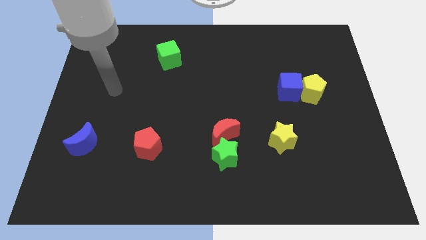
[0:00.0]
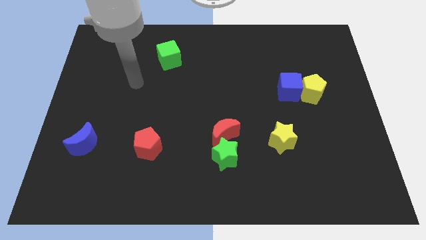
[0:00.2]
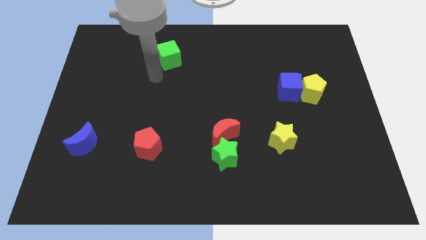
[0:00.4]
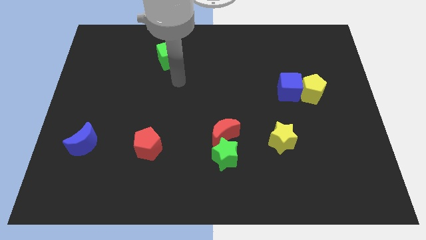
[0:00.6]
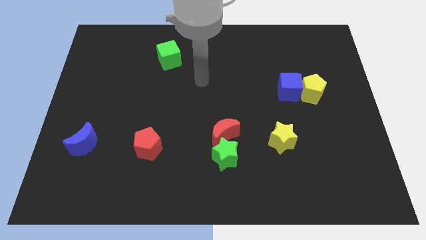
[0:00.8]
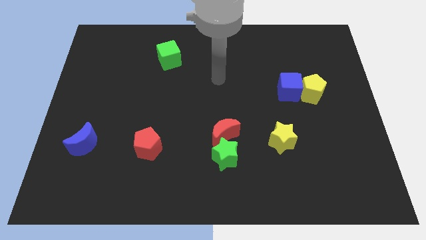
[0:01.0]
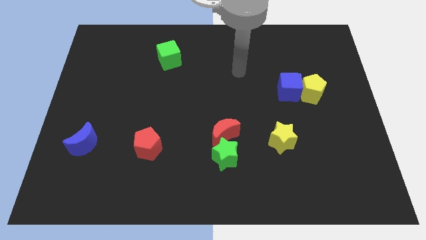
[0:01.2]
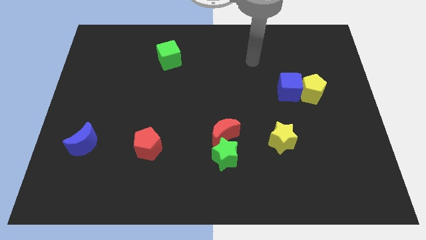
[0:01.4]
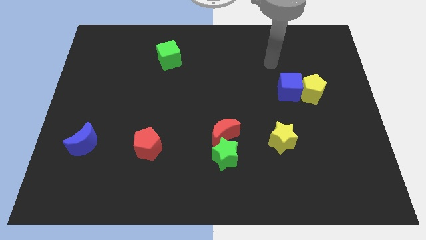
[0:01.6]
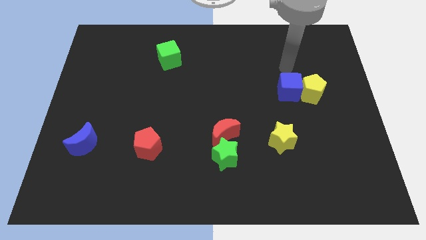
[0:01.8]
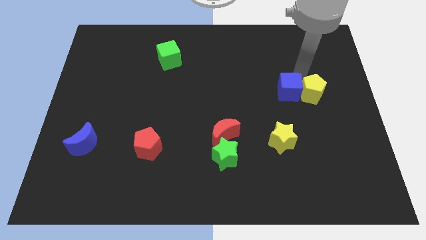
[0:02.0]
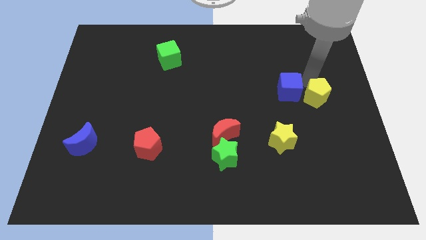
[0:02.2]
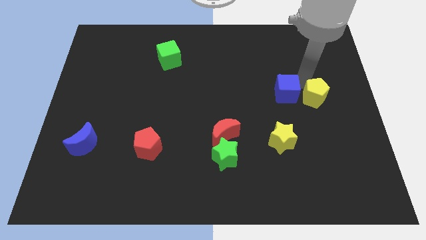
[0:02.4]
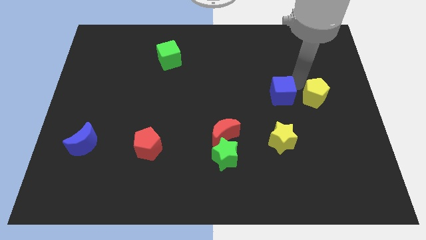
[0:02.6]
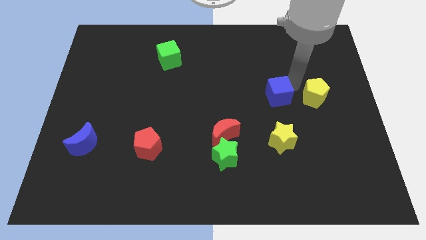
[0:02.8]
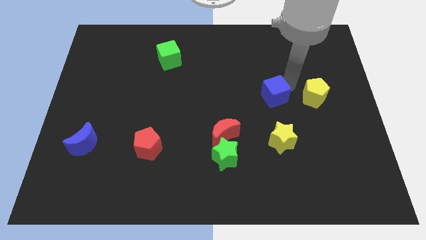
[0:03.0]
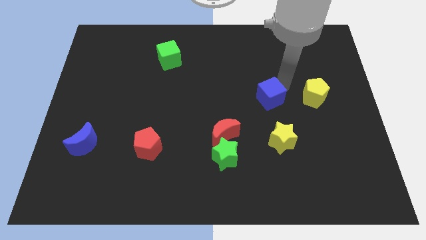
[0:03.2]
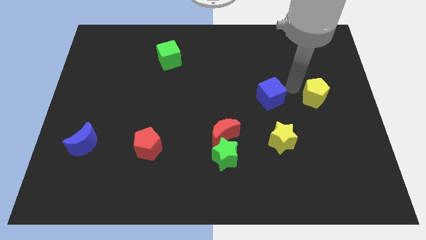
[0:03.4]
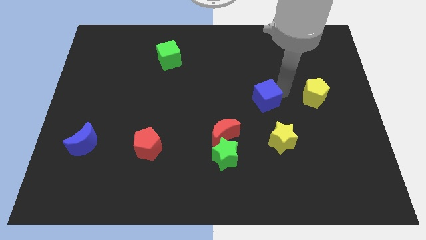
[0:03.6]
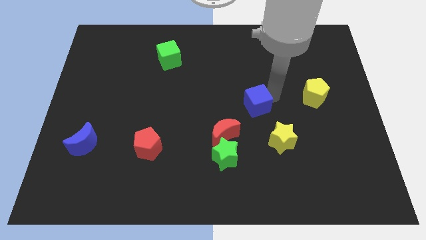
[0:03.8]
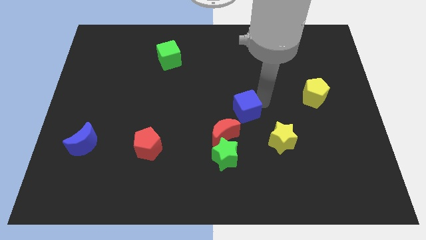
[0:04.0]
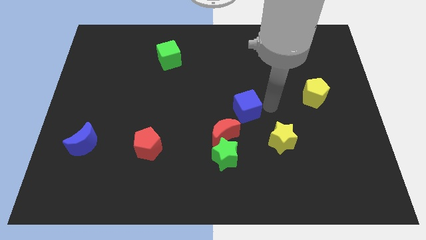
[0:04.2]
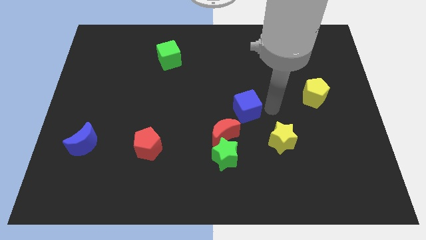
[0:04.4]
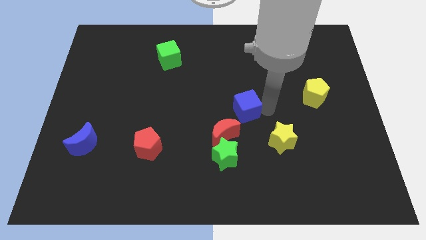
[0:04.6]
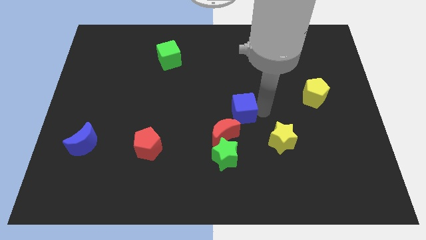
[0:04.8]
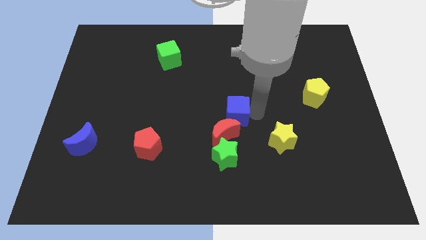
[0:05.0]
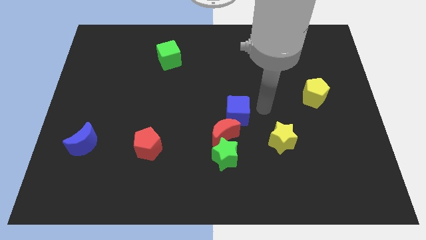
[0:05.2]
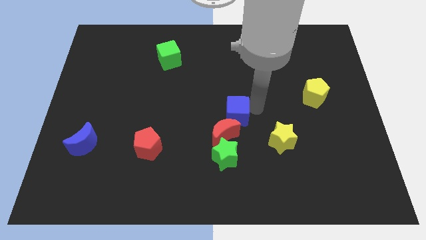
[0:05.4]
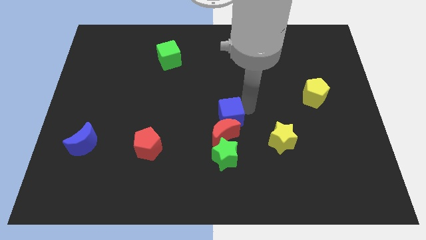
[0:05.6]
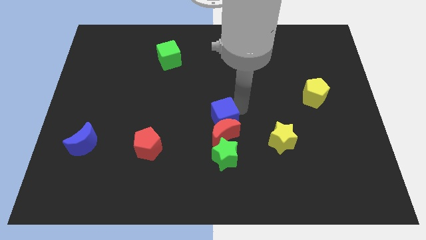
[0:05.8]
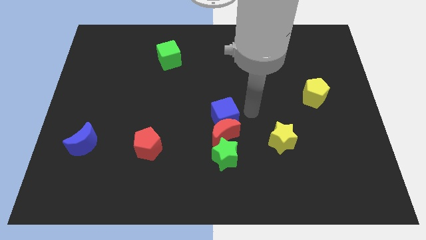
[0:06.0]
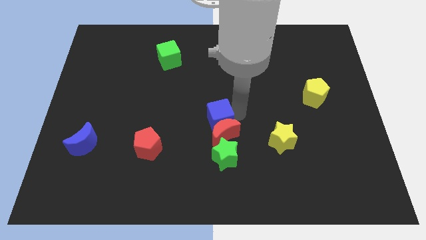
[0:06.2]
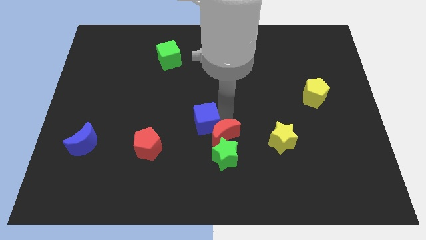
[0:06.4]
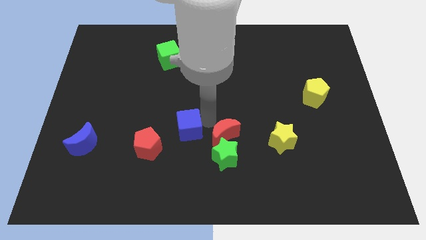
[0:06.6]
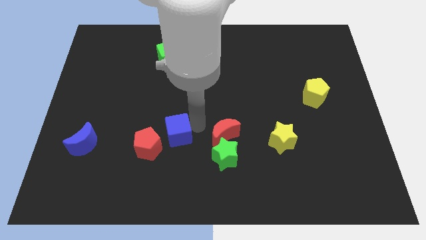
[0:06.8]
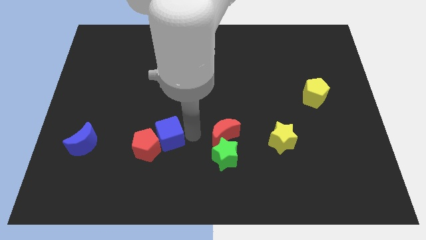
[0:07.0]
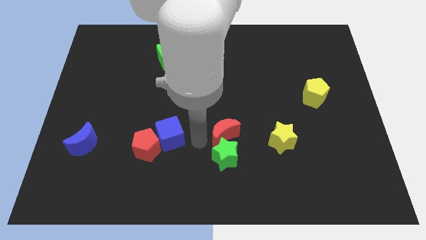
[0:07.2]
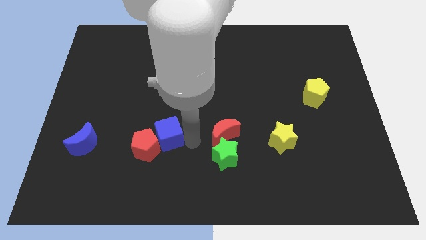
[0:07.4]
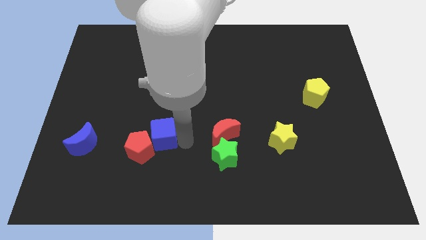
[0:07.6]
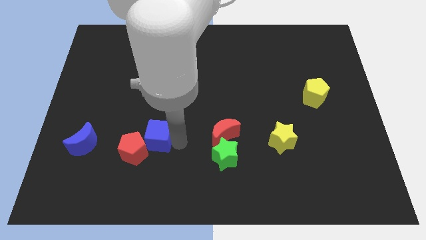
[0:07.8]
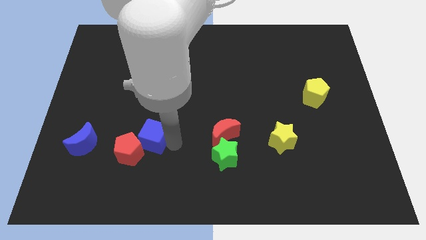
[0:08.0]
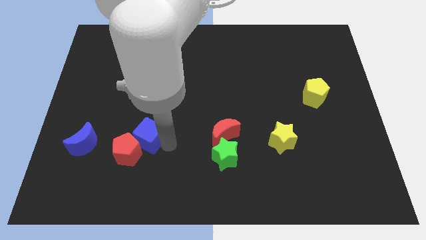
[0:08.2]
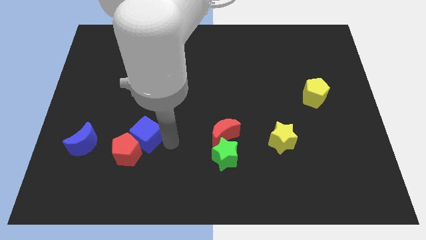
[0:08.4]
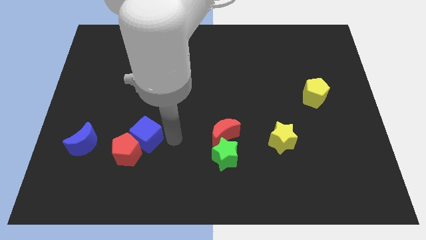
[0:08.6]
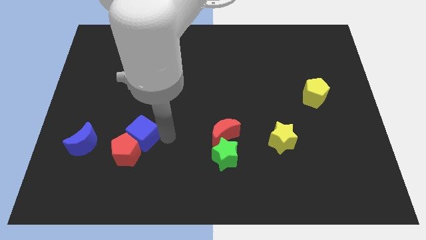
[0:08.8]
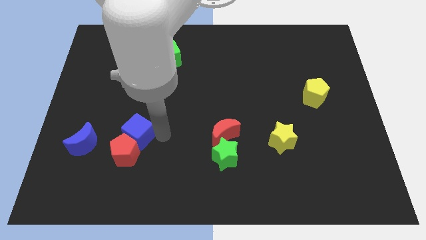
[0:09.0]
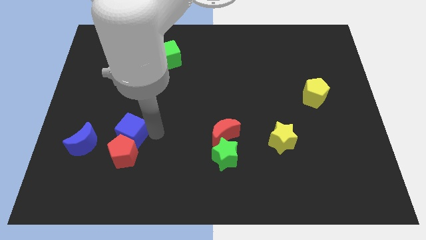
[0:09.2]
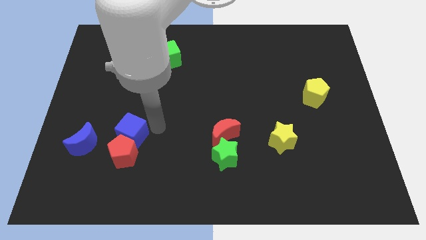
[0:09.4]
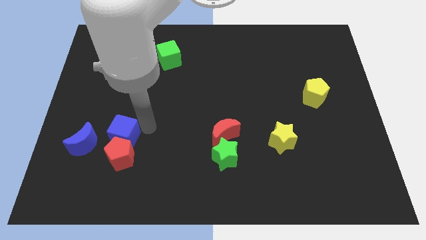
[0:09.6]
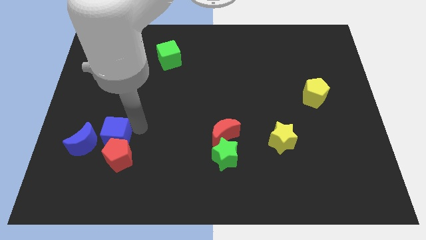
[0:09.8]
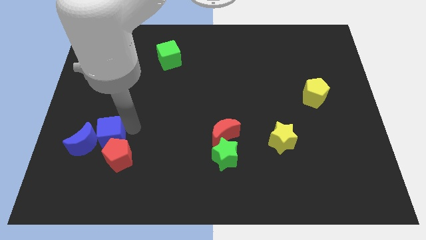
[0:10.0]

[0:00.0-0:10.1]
put the blue cube close to the blue moon

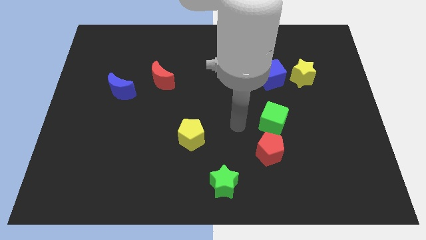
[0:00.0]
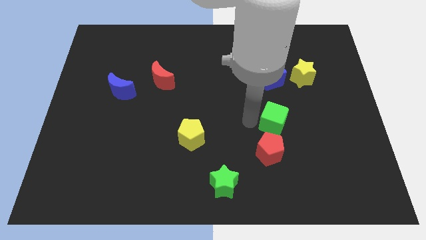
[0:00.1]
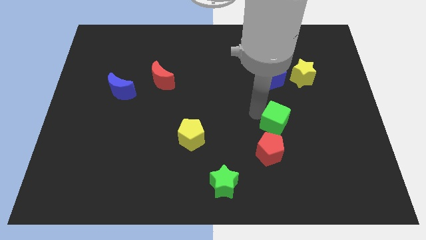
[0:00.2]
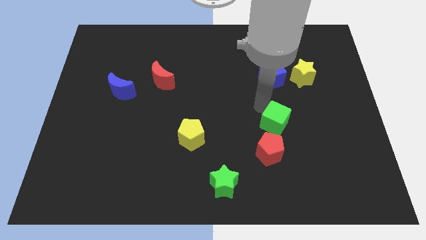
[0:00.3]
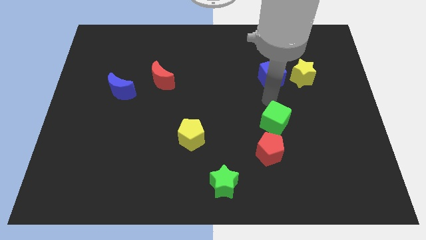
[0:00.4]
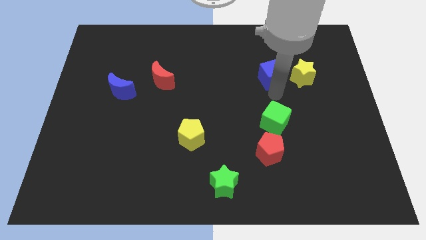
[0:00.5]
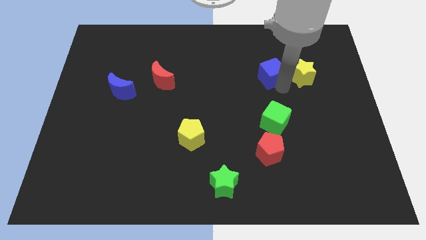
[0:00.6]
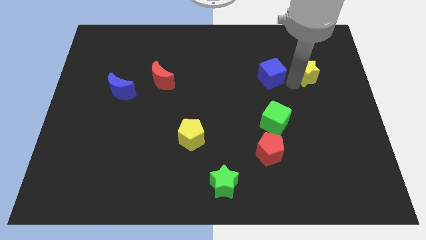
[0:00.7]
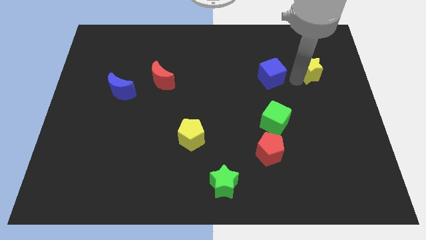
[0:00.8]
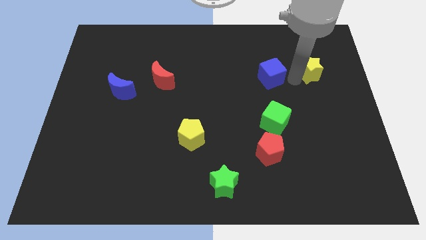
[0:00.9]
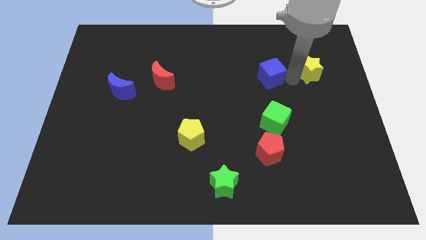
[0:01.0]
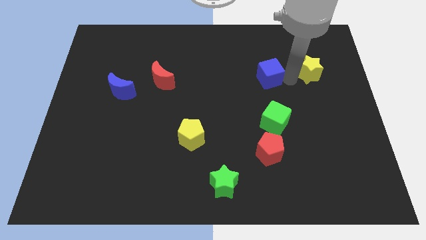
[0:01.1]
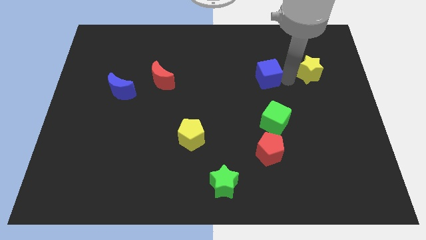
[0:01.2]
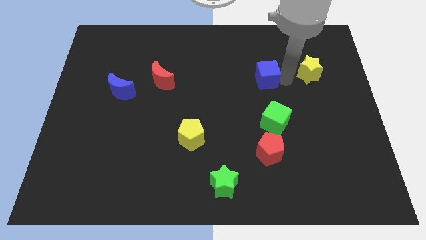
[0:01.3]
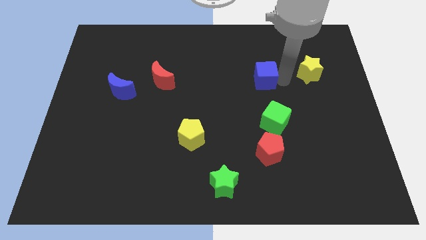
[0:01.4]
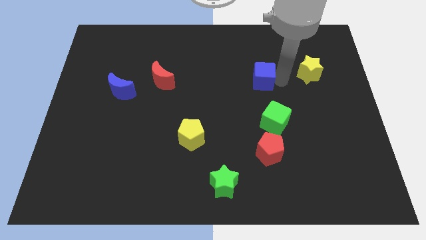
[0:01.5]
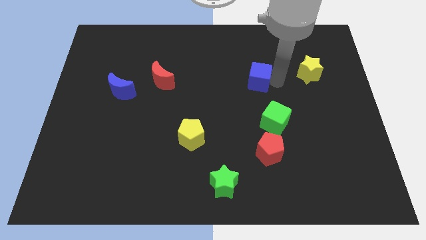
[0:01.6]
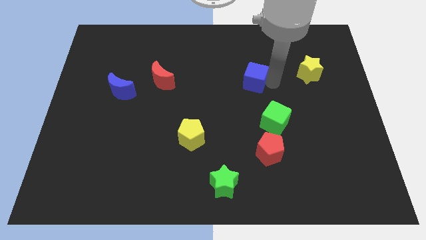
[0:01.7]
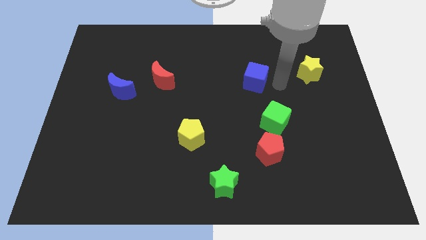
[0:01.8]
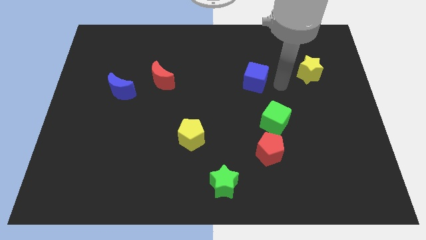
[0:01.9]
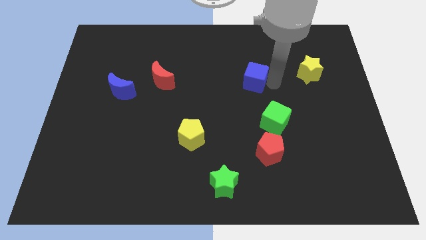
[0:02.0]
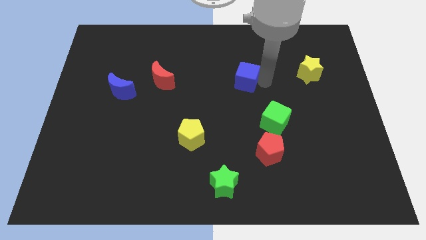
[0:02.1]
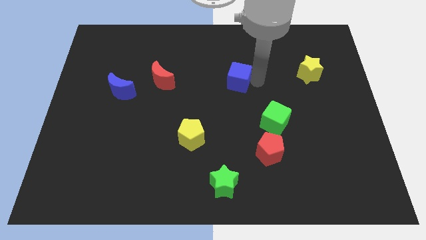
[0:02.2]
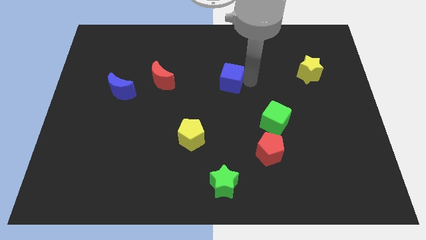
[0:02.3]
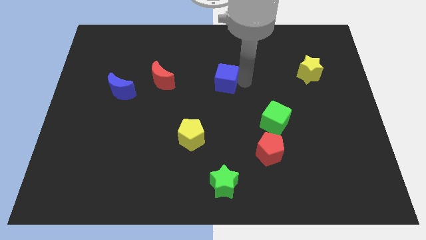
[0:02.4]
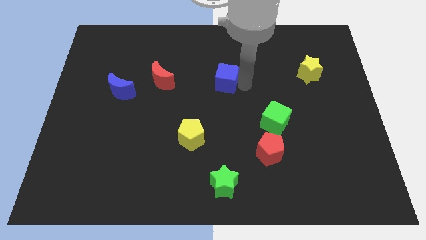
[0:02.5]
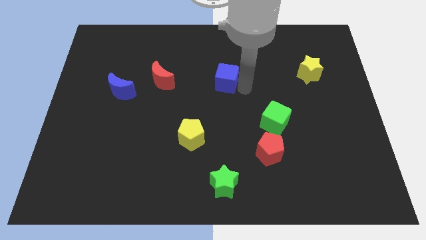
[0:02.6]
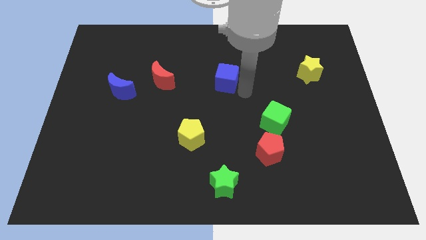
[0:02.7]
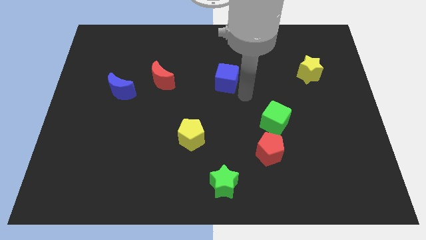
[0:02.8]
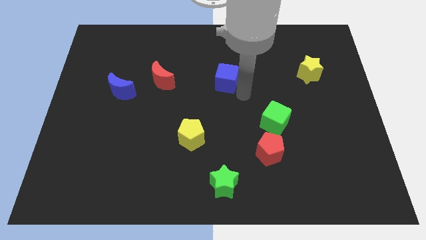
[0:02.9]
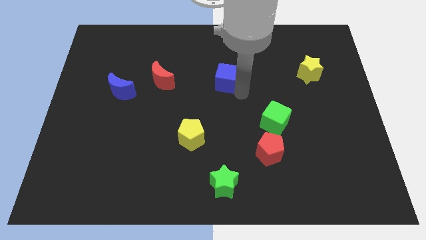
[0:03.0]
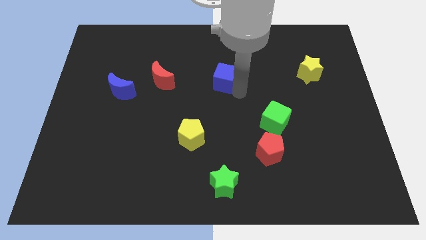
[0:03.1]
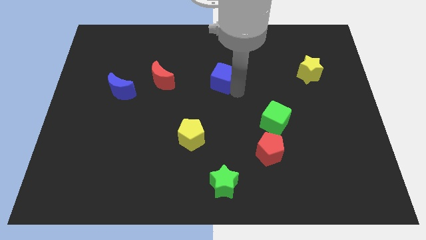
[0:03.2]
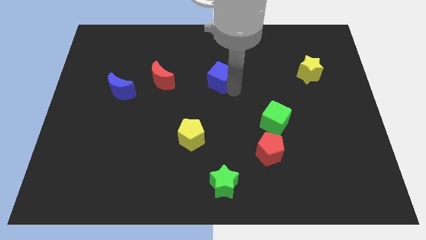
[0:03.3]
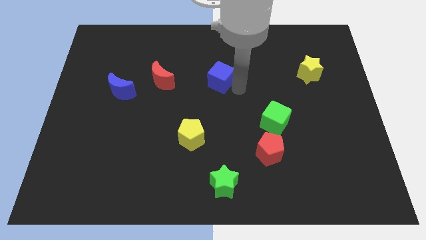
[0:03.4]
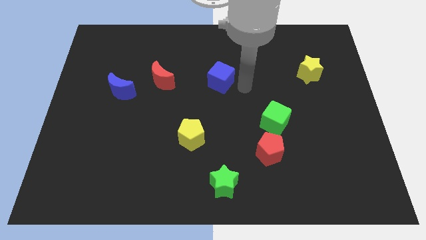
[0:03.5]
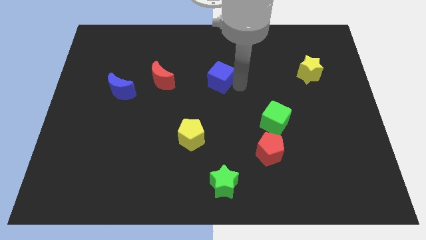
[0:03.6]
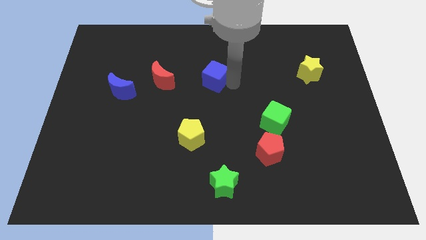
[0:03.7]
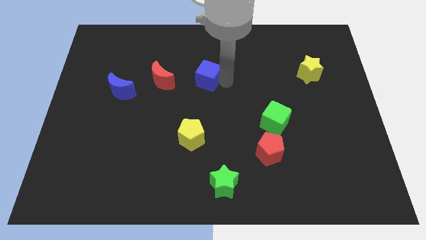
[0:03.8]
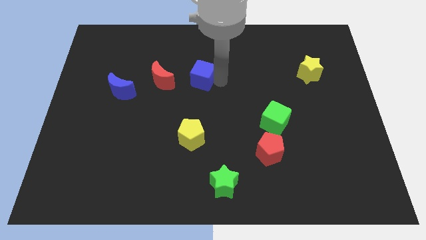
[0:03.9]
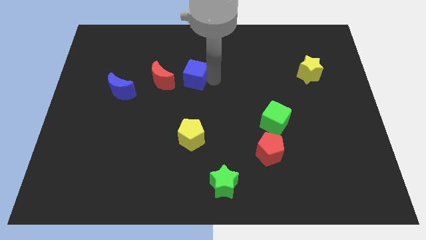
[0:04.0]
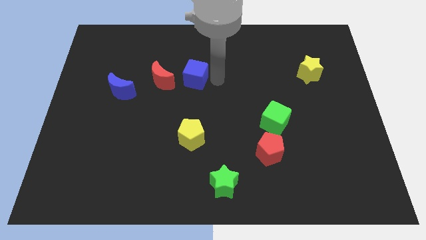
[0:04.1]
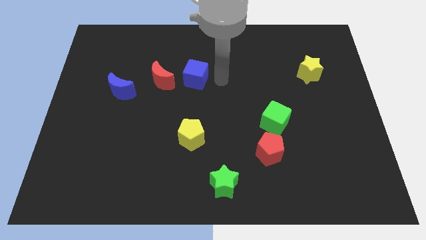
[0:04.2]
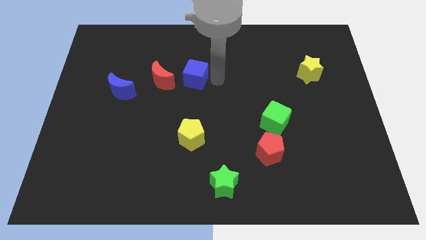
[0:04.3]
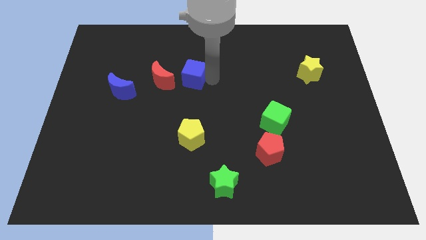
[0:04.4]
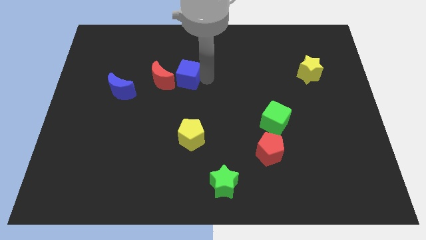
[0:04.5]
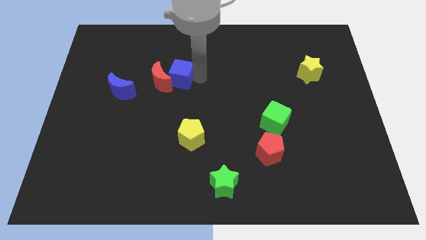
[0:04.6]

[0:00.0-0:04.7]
move the blue cube close to the red moon
